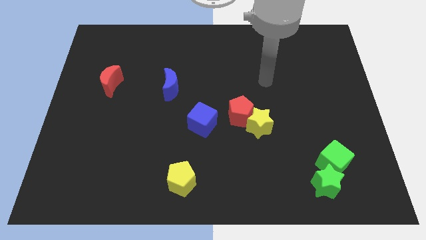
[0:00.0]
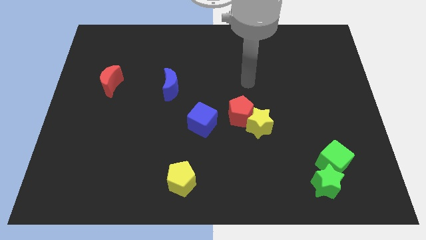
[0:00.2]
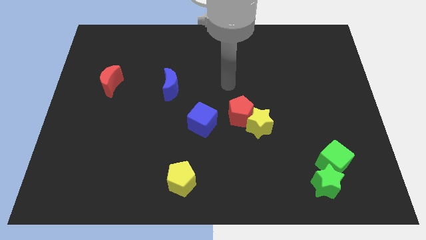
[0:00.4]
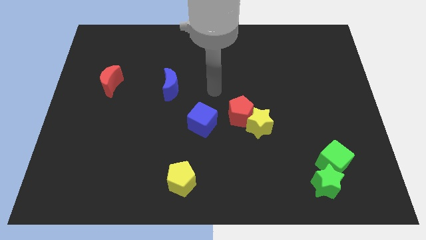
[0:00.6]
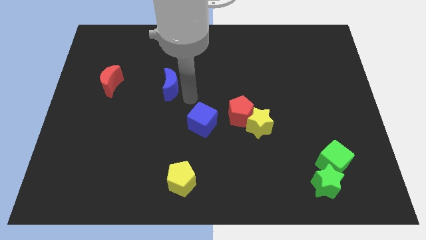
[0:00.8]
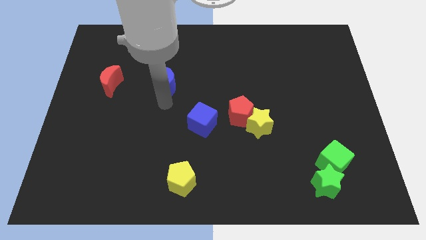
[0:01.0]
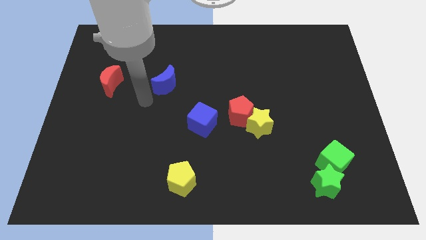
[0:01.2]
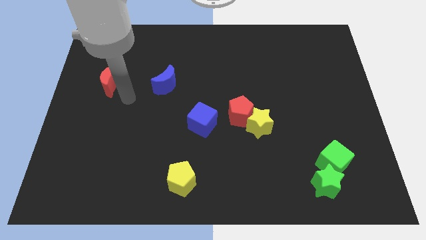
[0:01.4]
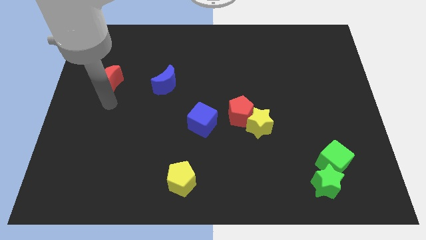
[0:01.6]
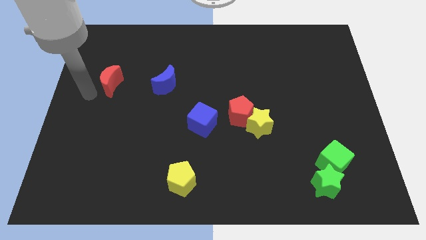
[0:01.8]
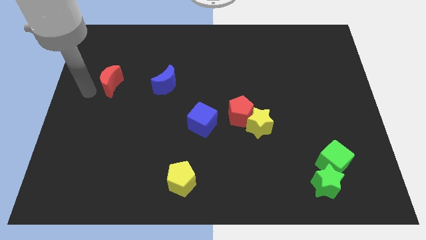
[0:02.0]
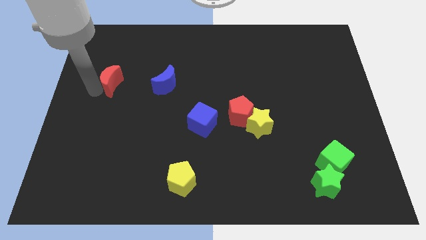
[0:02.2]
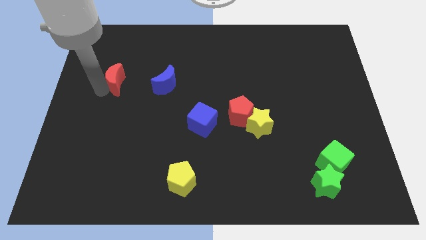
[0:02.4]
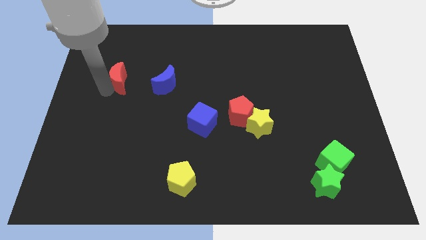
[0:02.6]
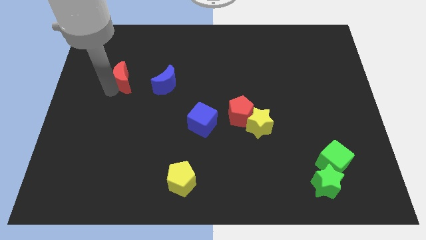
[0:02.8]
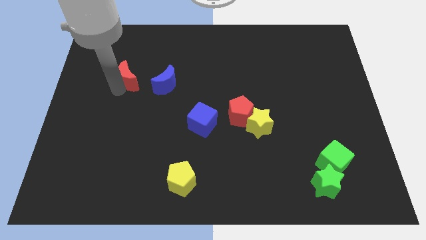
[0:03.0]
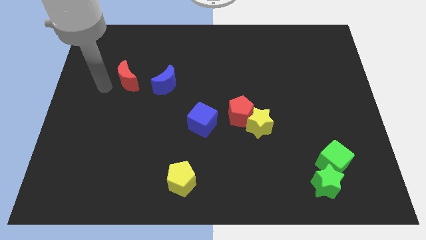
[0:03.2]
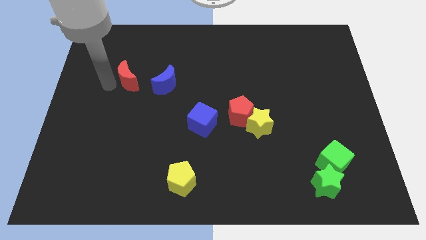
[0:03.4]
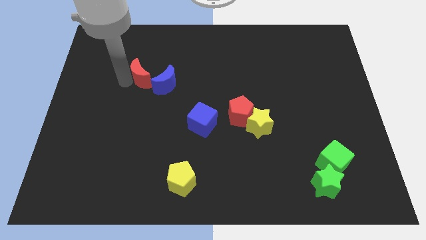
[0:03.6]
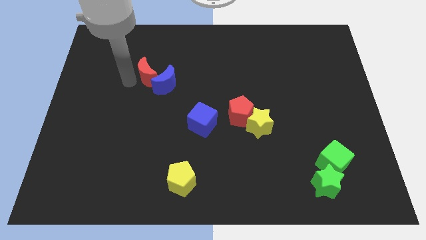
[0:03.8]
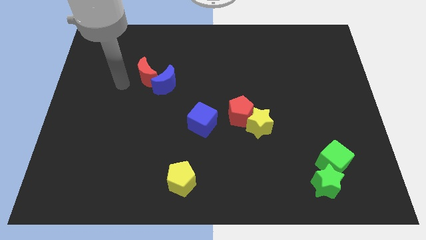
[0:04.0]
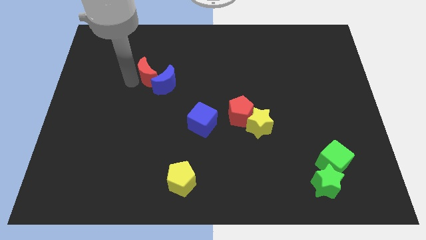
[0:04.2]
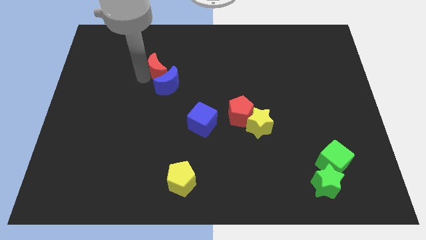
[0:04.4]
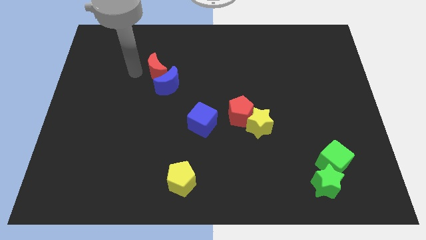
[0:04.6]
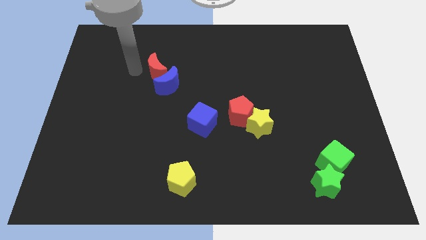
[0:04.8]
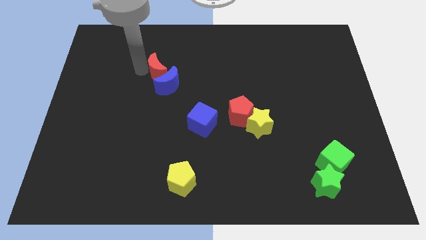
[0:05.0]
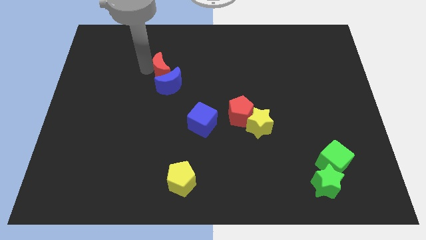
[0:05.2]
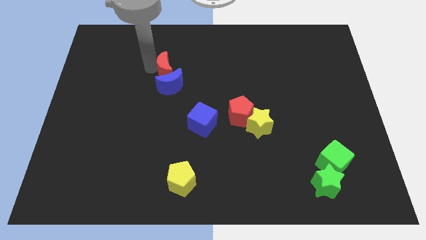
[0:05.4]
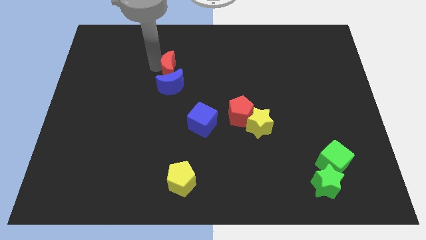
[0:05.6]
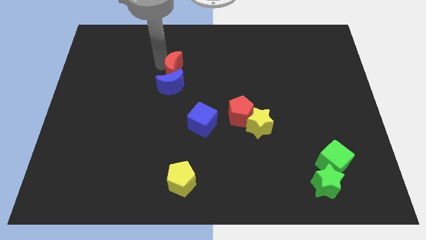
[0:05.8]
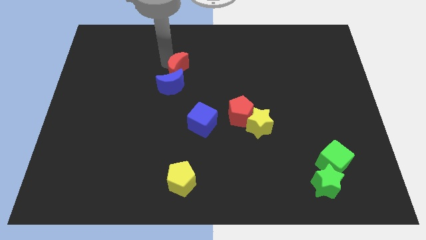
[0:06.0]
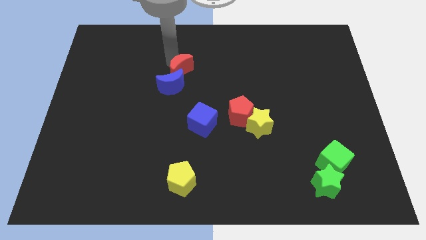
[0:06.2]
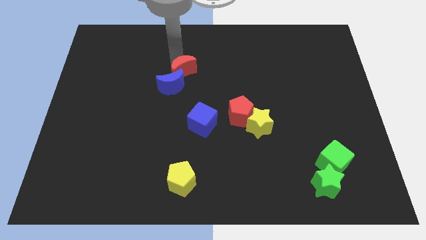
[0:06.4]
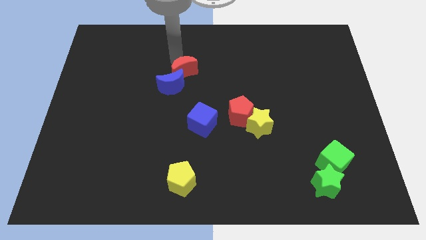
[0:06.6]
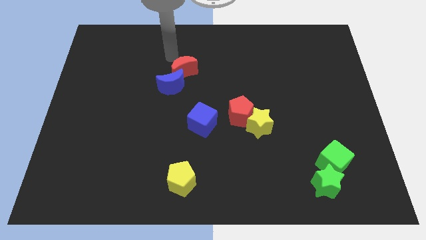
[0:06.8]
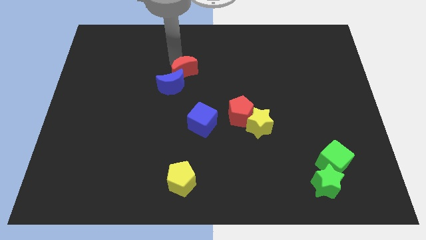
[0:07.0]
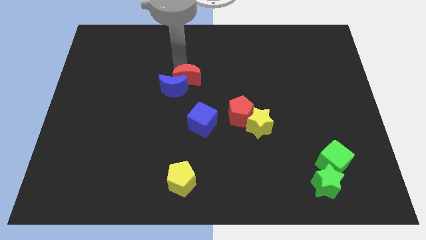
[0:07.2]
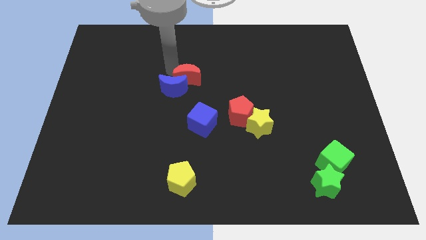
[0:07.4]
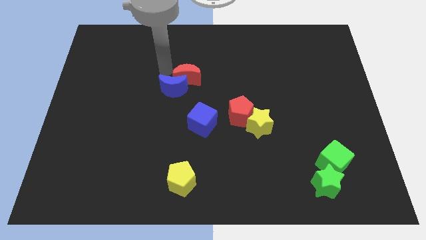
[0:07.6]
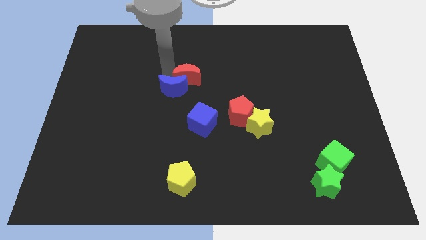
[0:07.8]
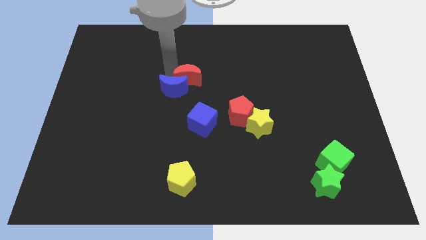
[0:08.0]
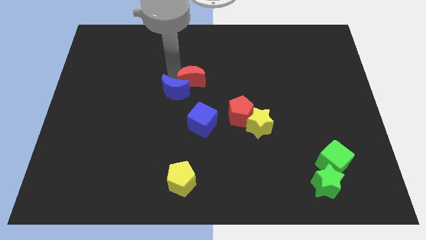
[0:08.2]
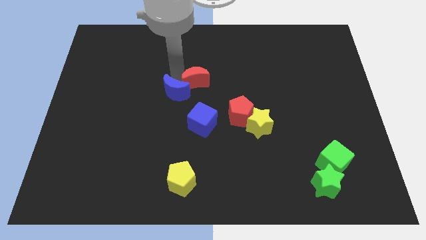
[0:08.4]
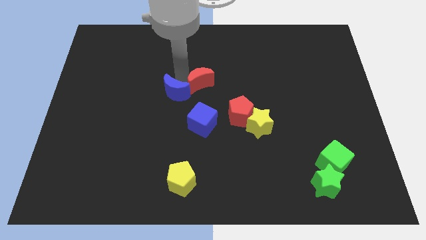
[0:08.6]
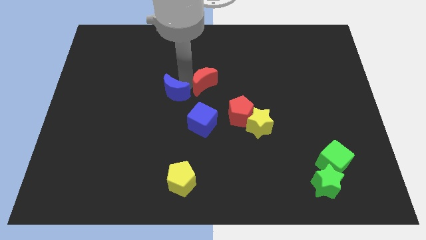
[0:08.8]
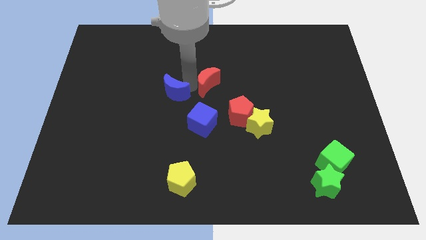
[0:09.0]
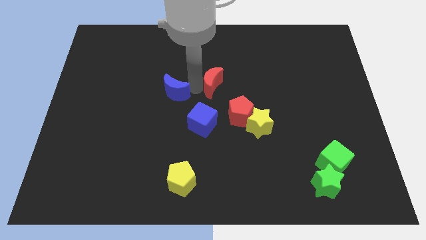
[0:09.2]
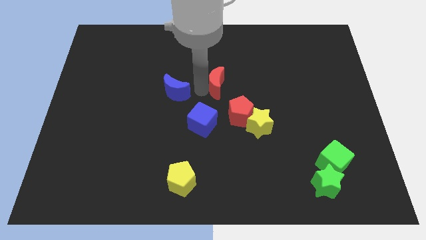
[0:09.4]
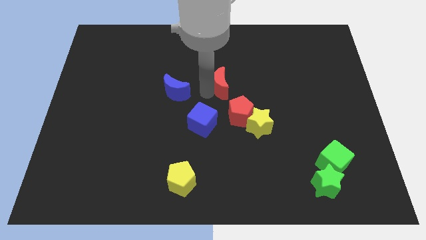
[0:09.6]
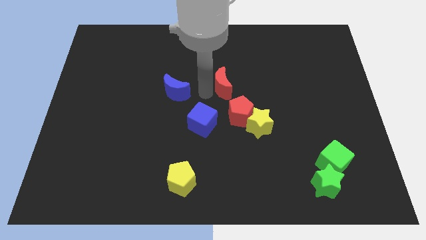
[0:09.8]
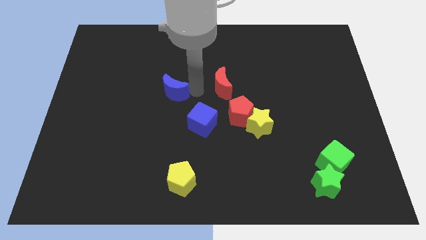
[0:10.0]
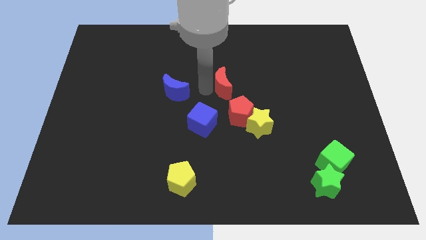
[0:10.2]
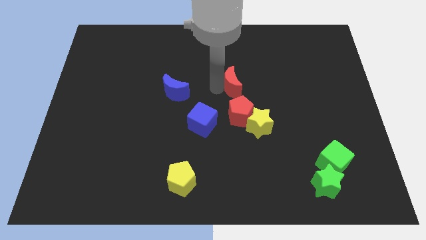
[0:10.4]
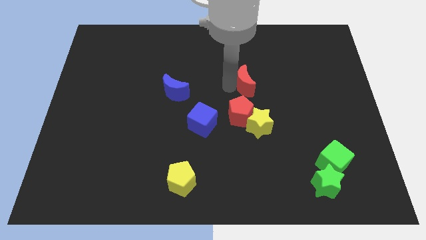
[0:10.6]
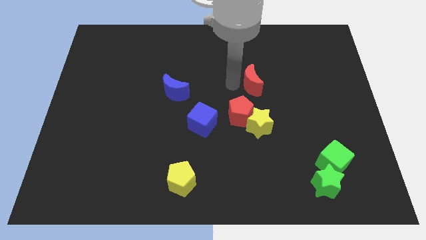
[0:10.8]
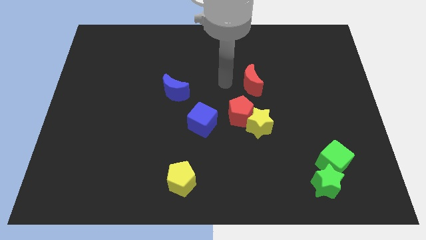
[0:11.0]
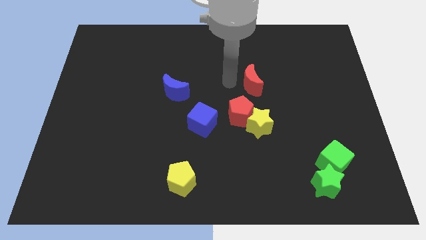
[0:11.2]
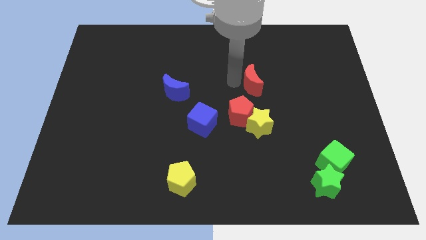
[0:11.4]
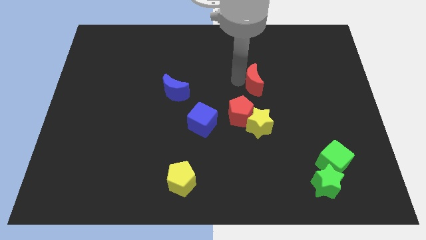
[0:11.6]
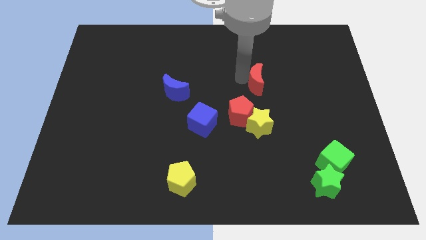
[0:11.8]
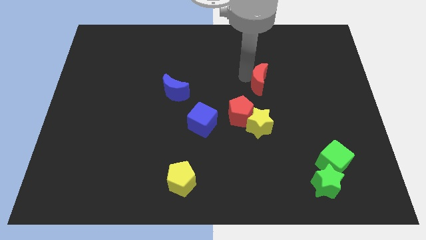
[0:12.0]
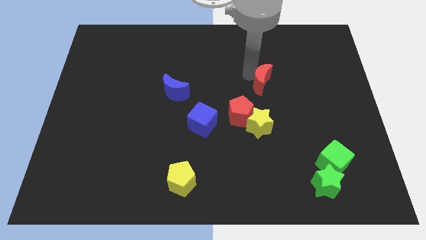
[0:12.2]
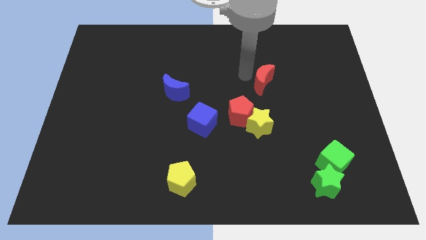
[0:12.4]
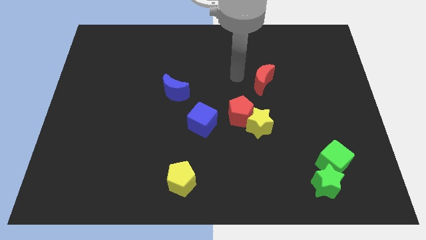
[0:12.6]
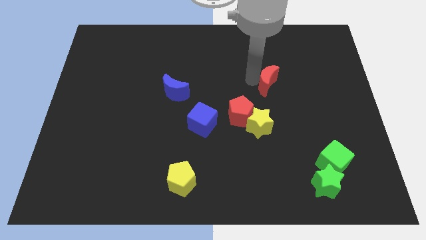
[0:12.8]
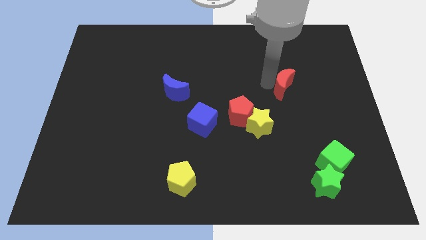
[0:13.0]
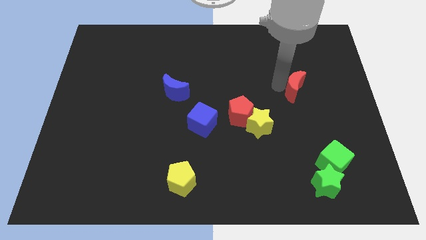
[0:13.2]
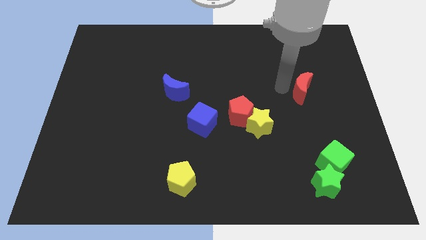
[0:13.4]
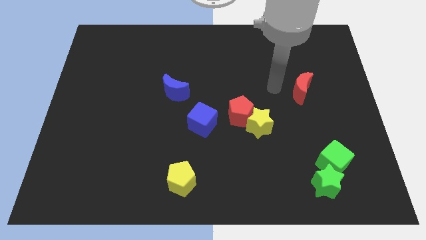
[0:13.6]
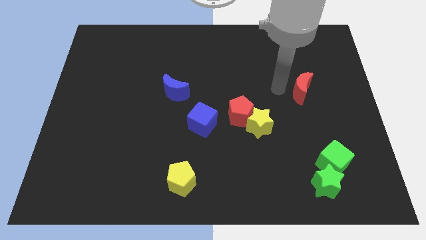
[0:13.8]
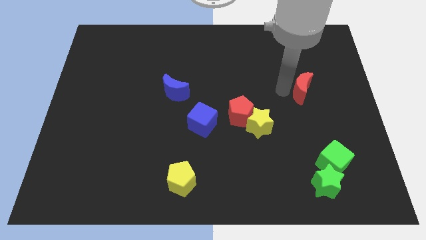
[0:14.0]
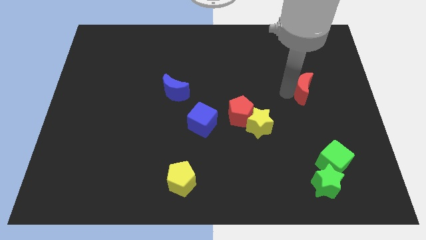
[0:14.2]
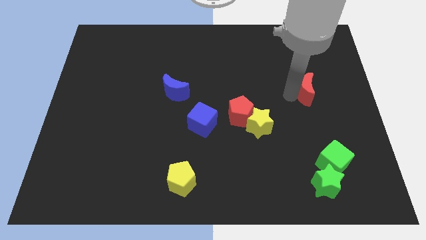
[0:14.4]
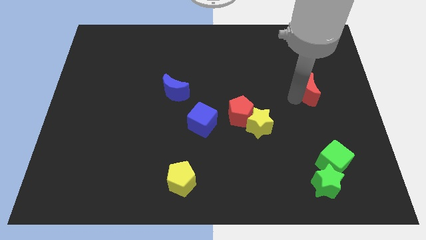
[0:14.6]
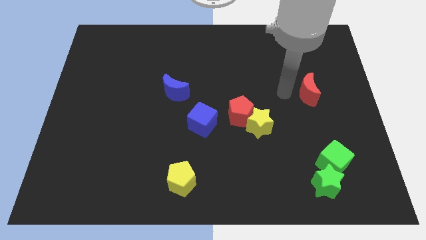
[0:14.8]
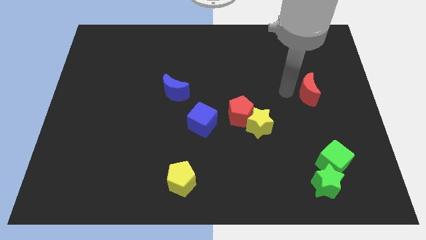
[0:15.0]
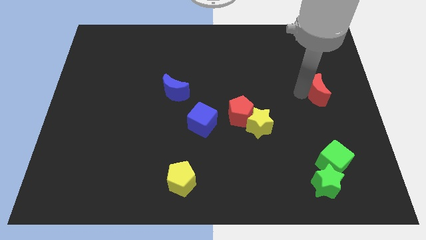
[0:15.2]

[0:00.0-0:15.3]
put the red moon to the right side
